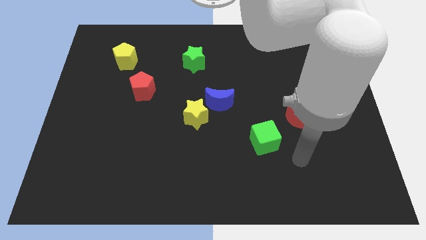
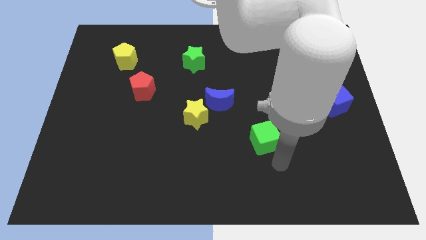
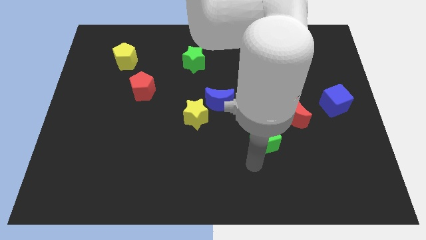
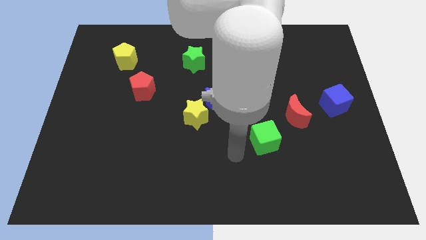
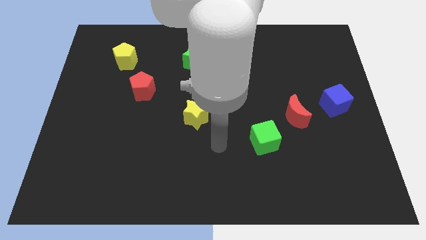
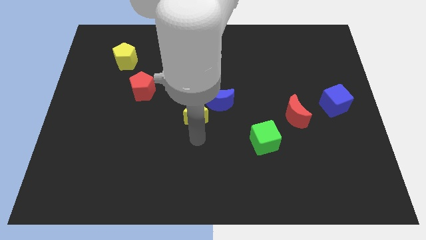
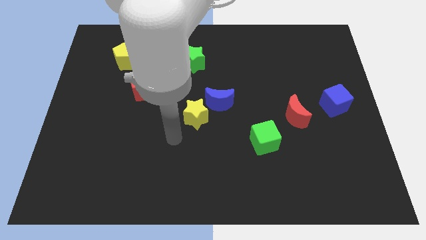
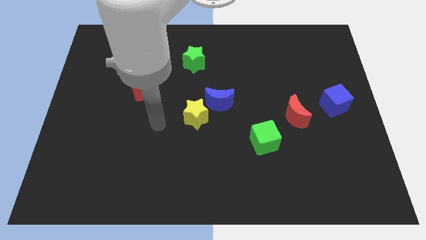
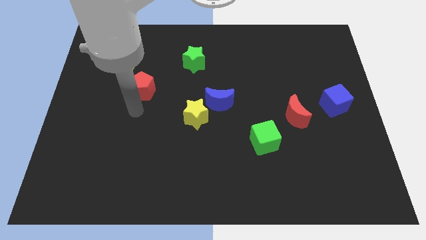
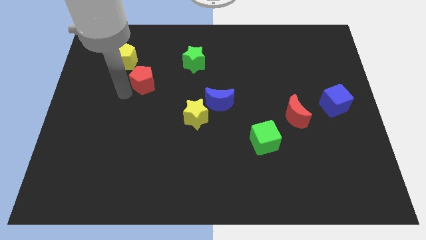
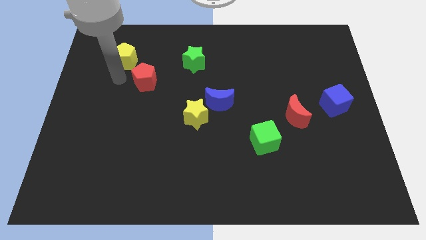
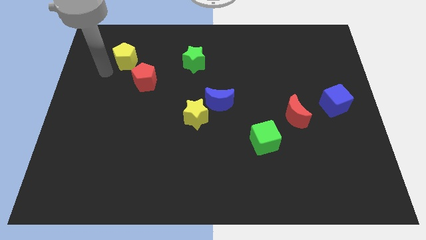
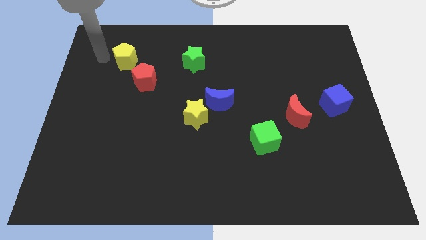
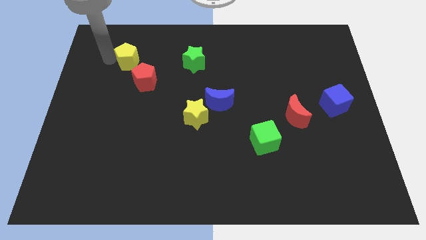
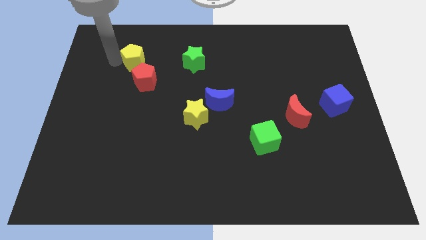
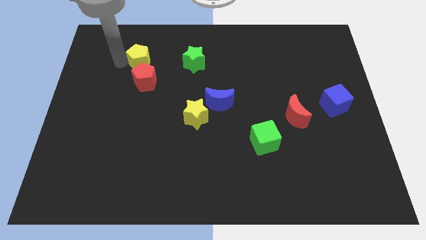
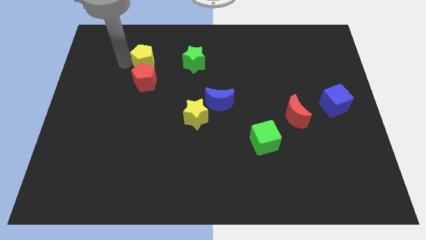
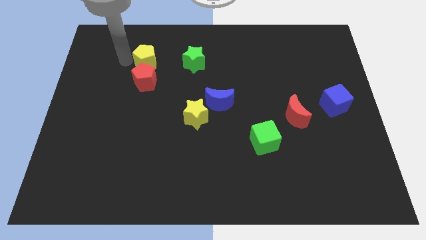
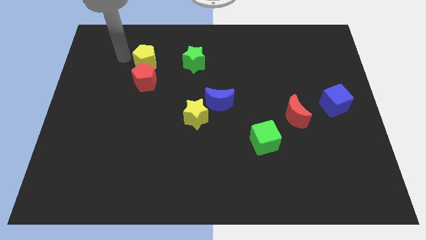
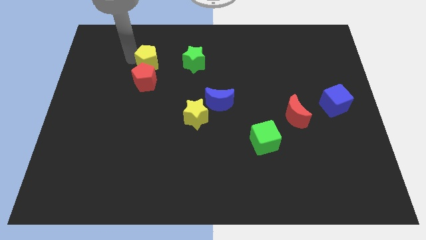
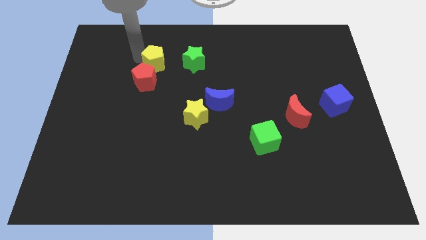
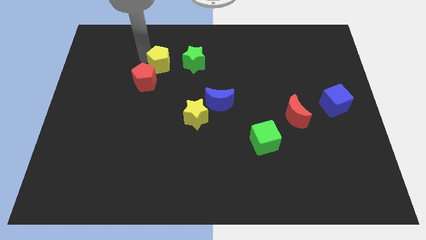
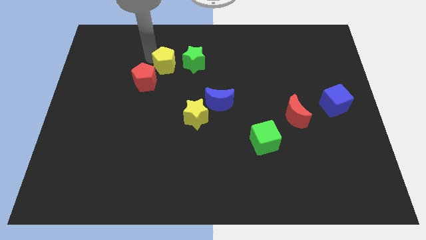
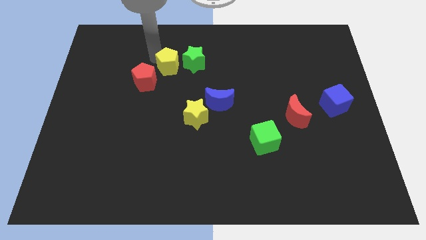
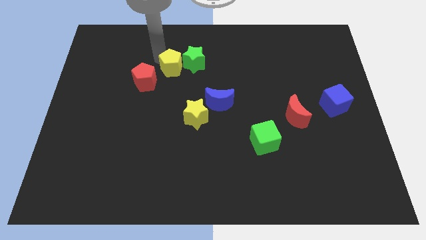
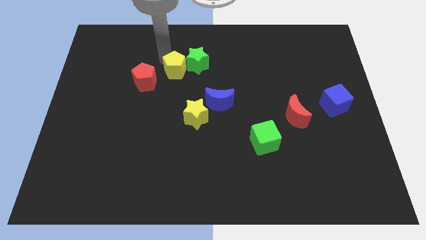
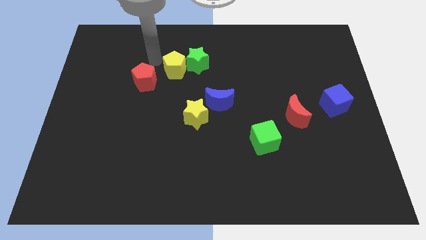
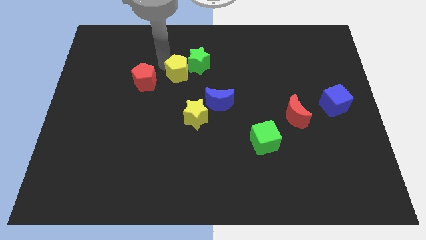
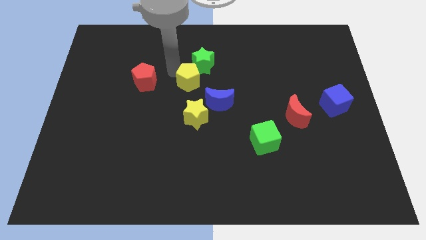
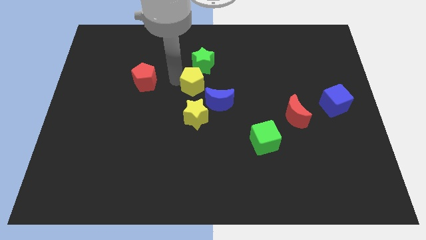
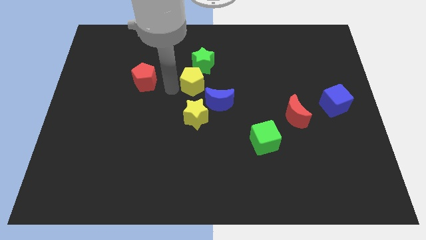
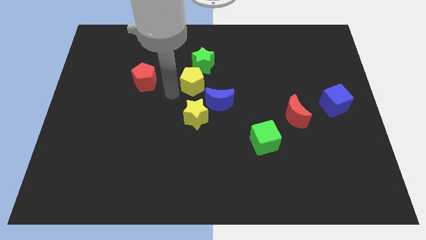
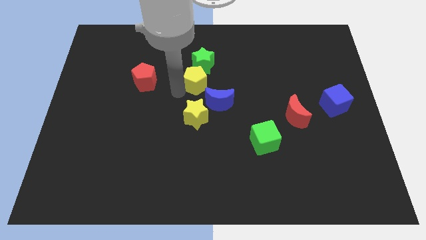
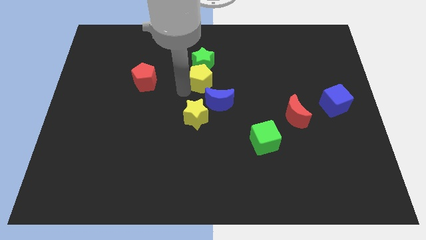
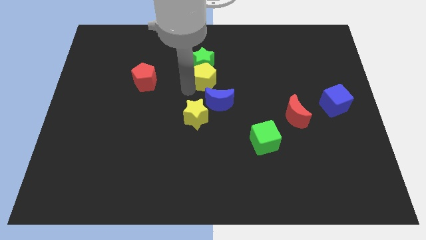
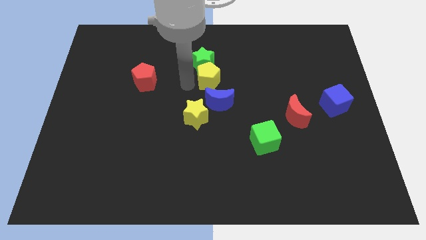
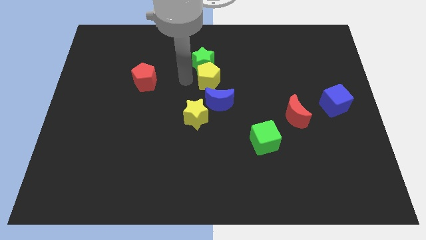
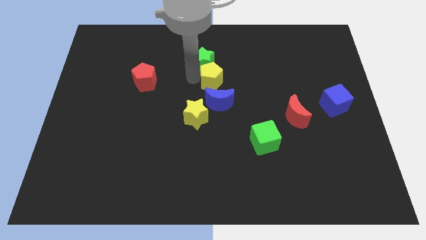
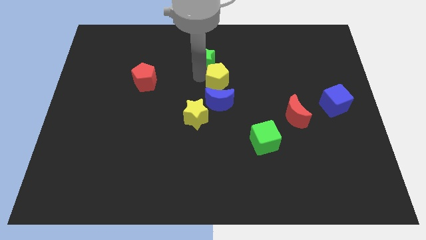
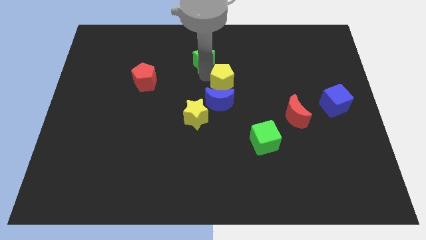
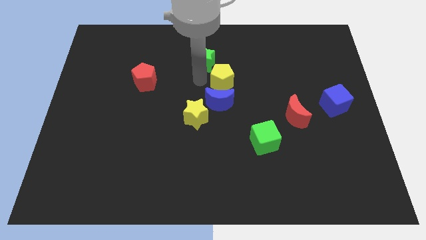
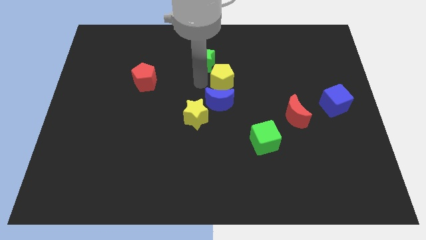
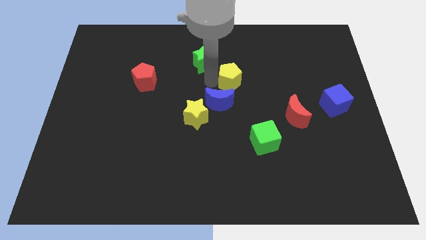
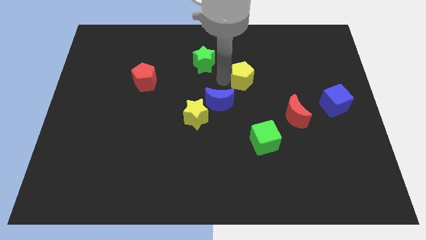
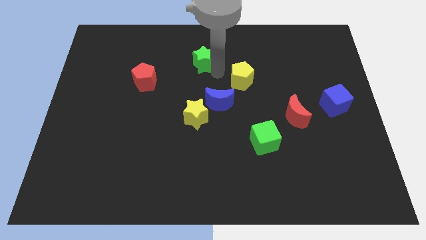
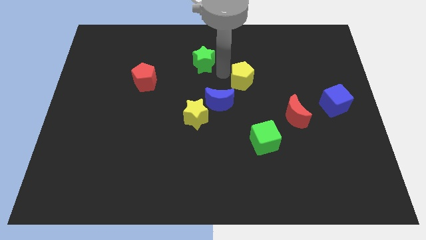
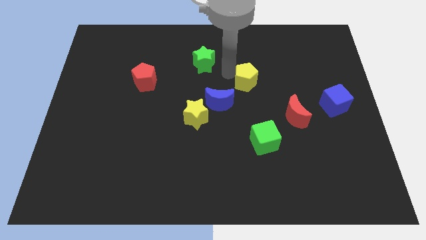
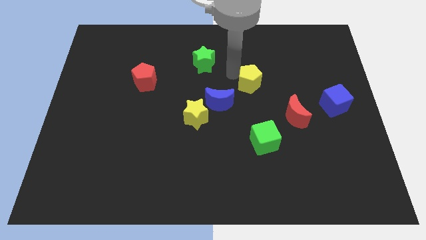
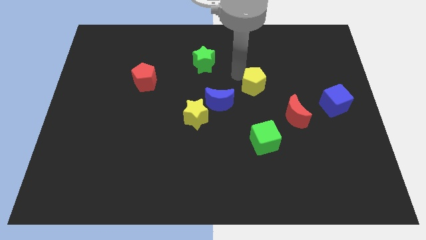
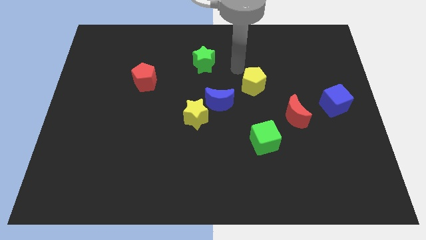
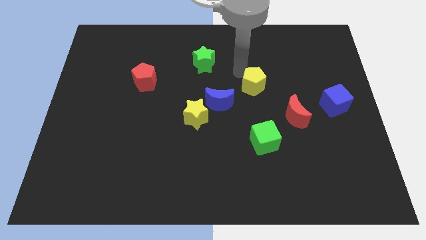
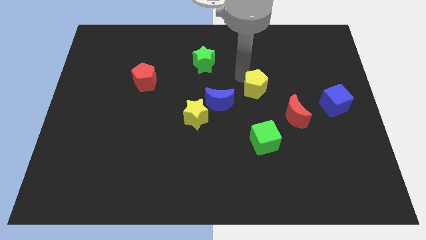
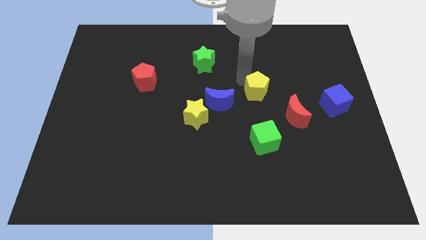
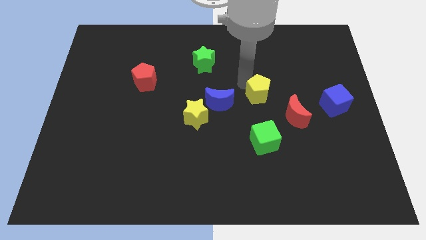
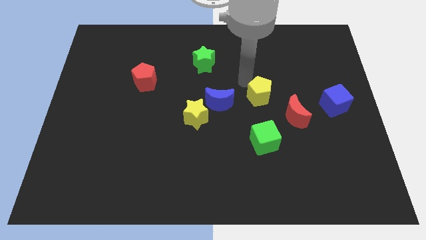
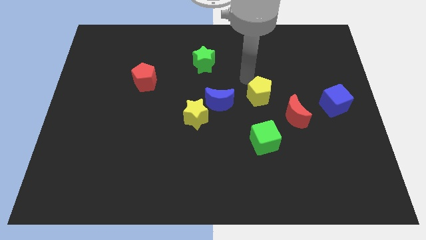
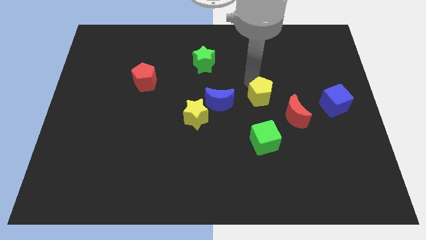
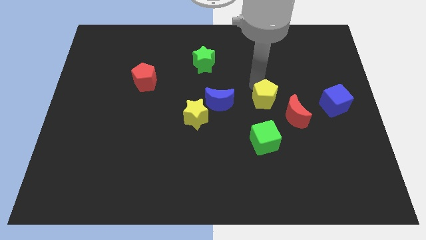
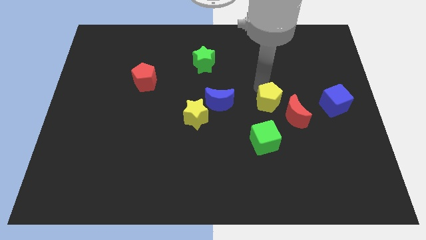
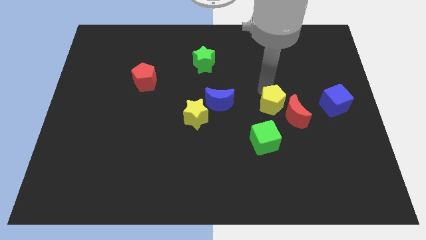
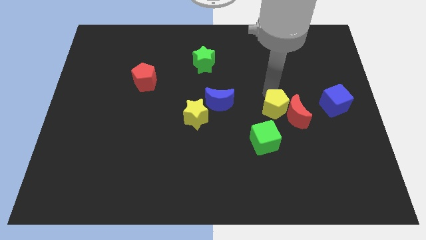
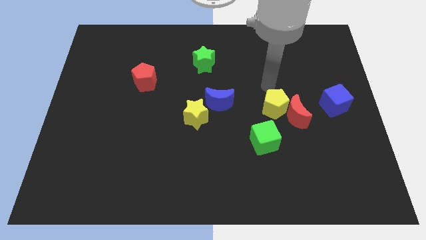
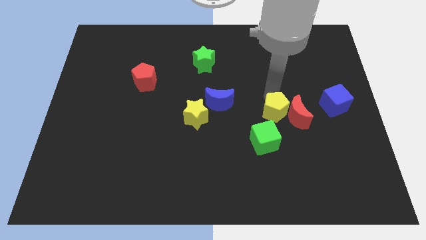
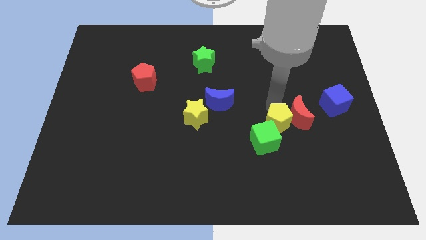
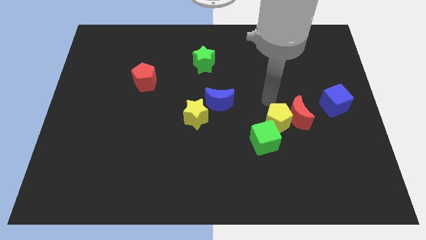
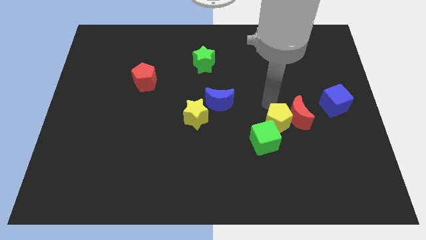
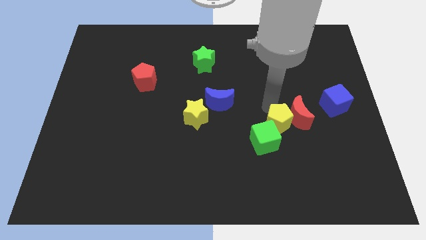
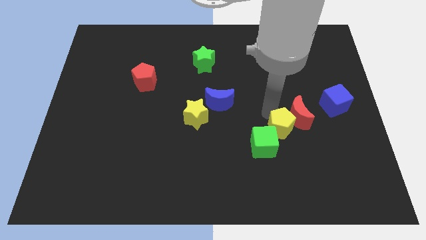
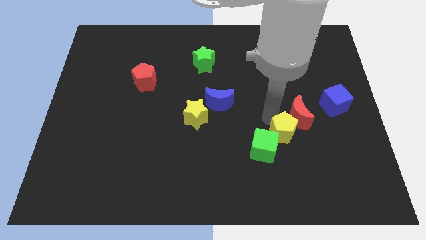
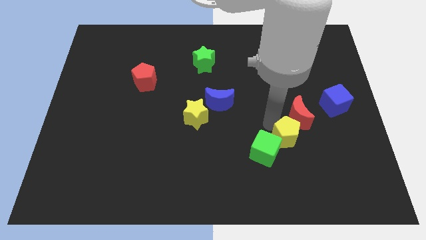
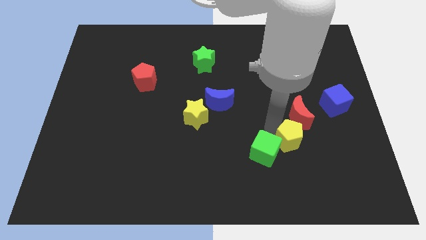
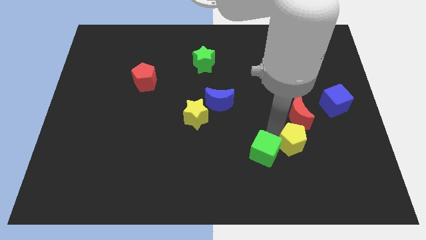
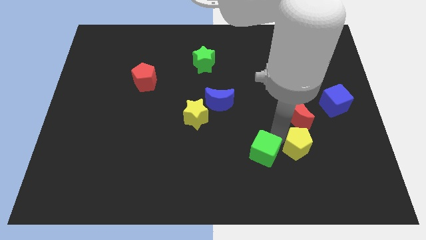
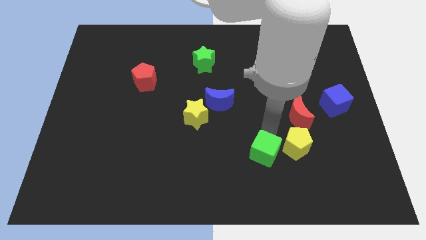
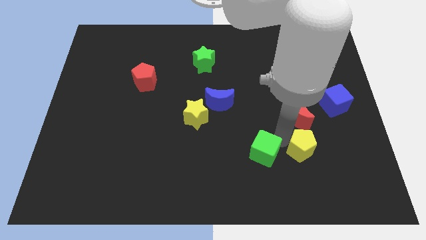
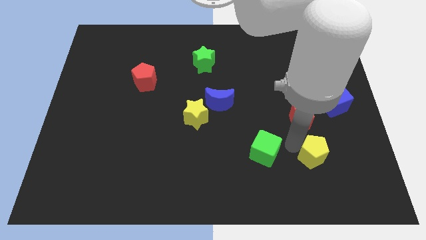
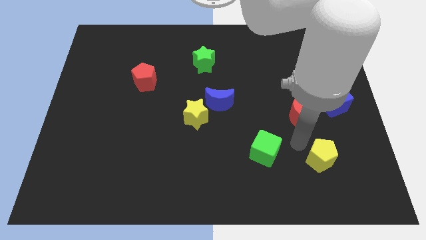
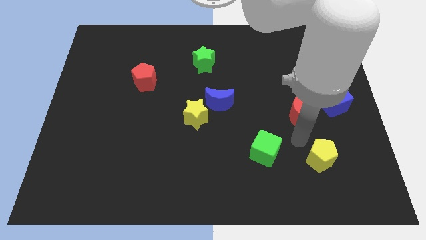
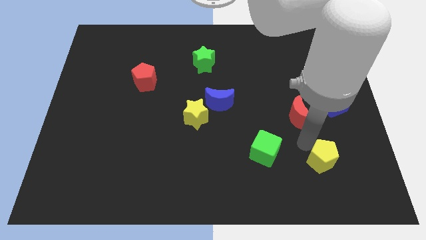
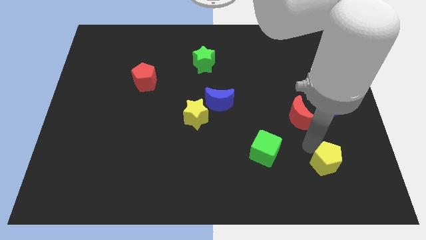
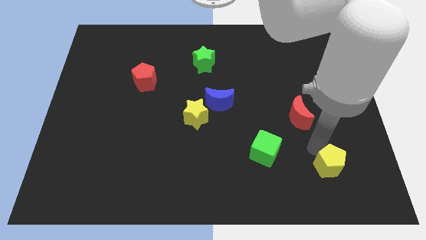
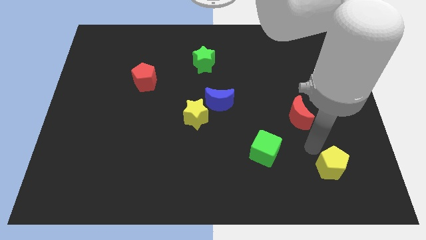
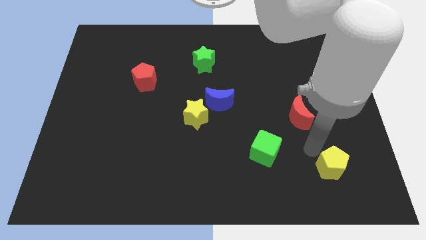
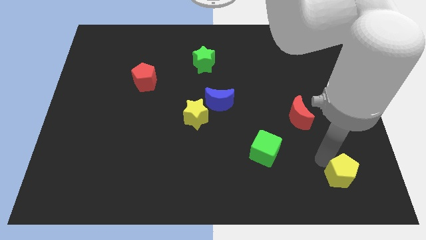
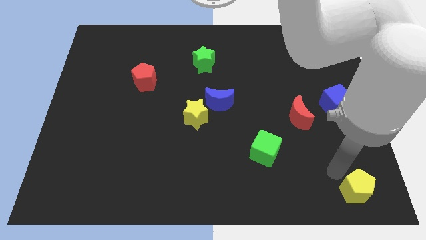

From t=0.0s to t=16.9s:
move the yellow pentagon to the bottom right corner
